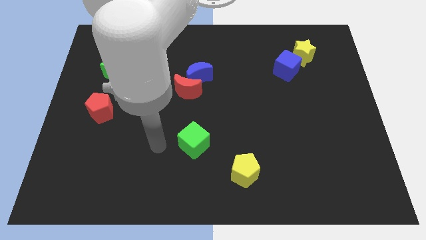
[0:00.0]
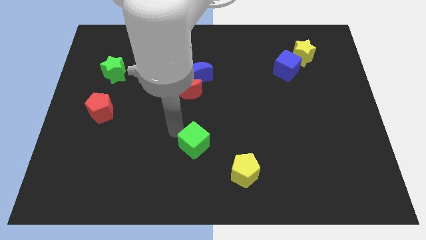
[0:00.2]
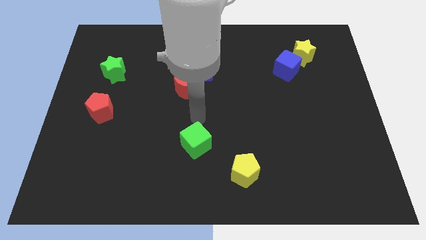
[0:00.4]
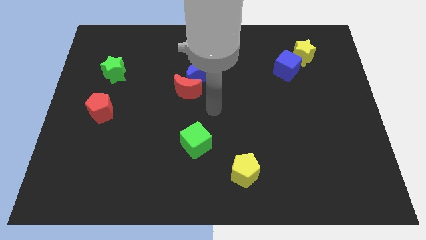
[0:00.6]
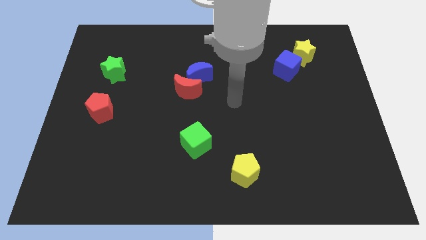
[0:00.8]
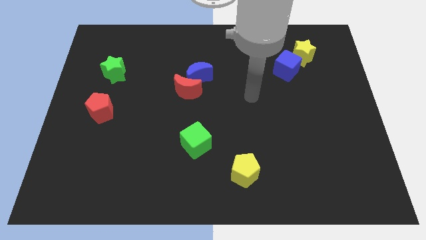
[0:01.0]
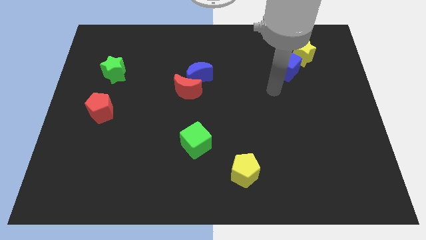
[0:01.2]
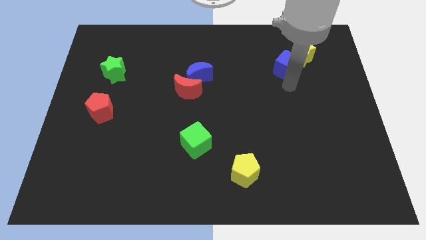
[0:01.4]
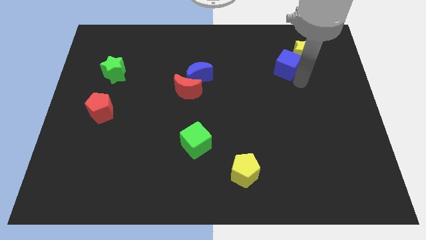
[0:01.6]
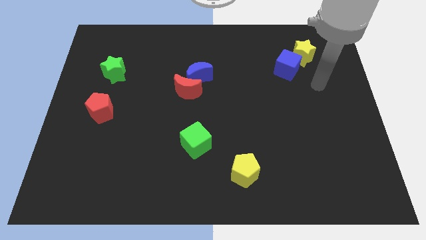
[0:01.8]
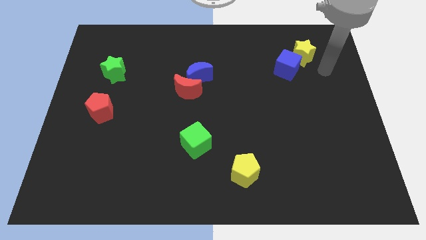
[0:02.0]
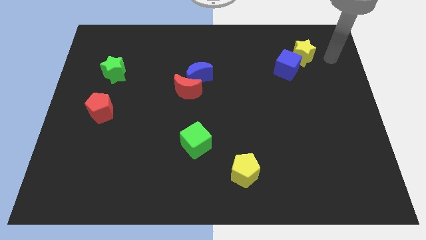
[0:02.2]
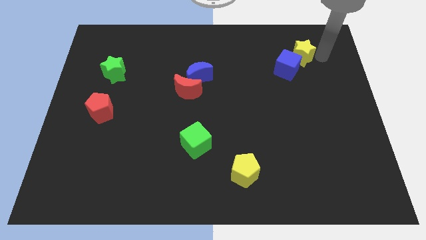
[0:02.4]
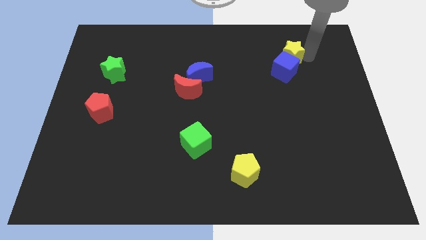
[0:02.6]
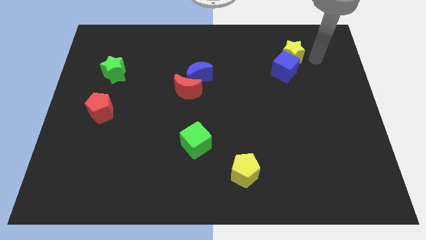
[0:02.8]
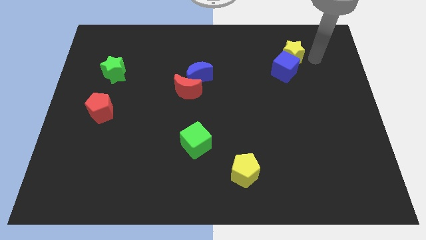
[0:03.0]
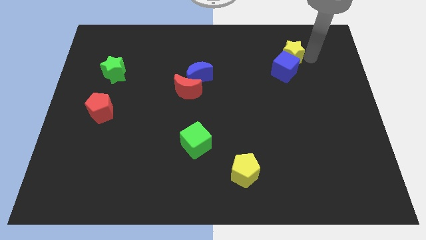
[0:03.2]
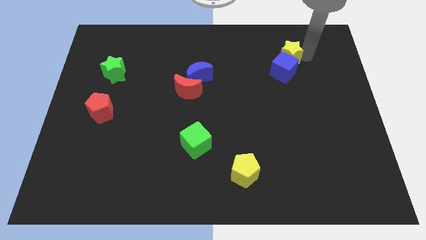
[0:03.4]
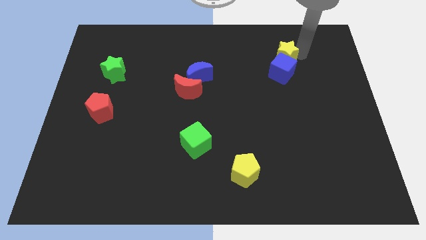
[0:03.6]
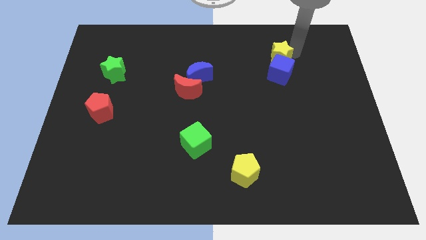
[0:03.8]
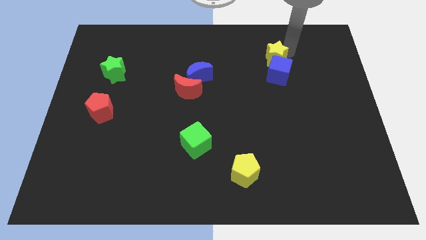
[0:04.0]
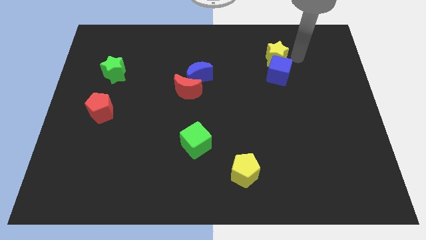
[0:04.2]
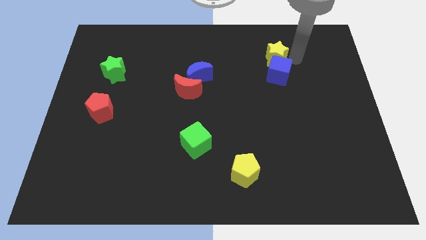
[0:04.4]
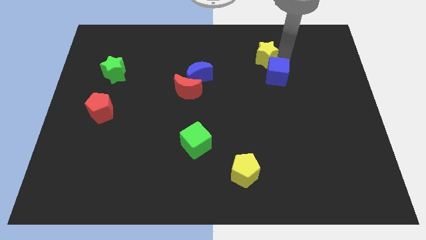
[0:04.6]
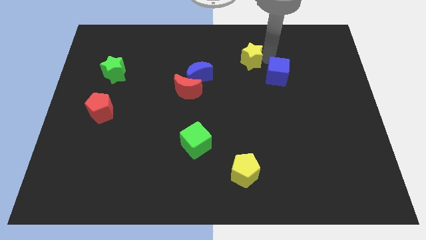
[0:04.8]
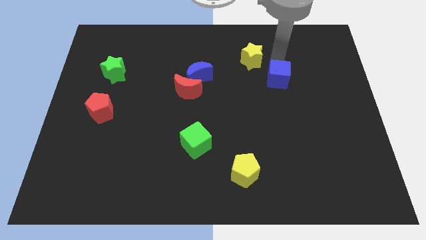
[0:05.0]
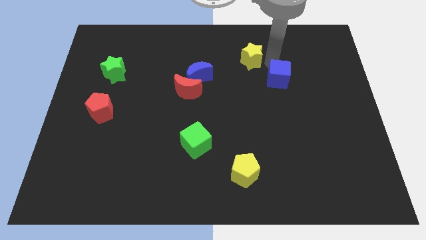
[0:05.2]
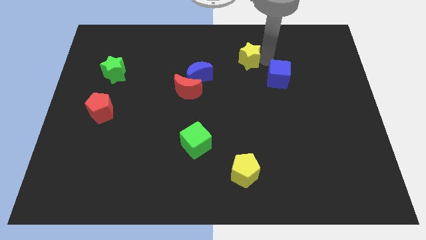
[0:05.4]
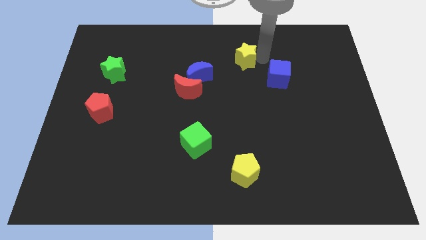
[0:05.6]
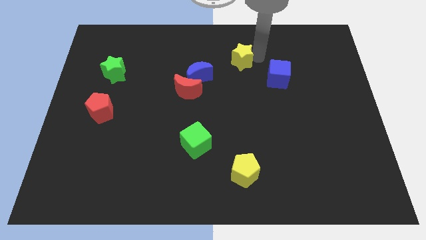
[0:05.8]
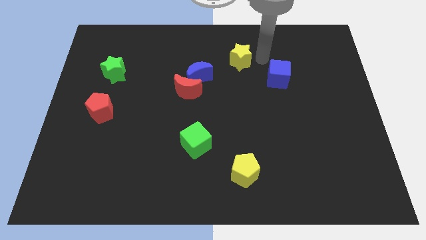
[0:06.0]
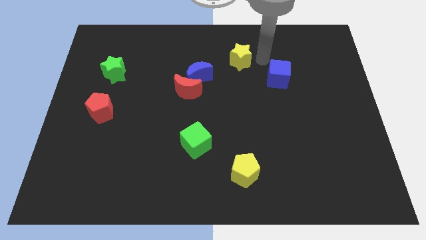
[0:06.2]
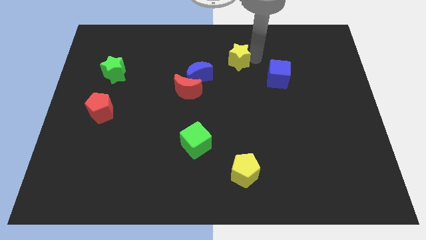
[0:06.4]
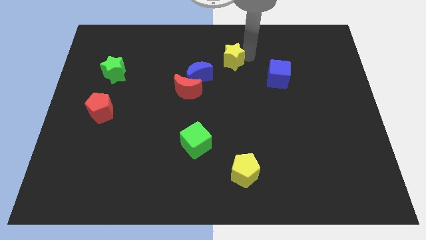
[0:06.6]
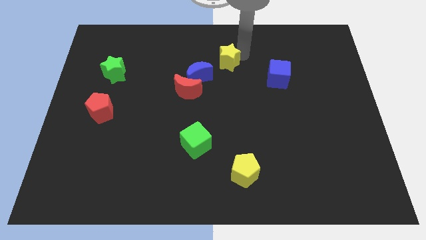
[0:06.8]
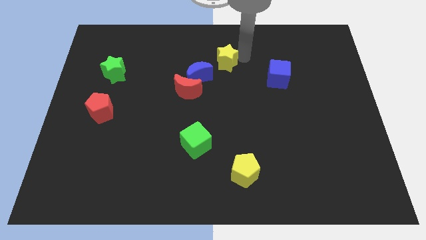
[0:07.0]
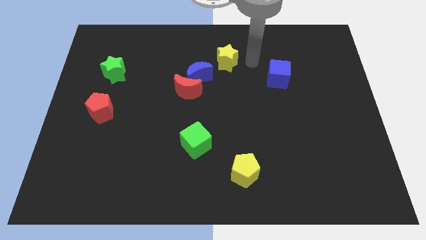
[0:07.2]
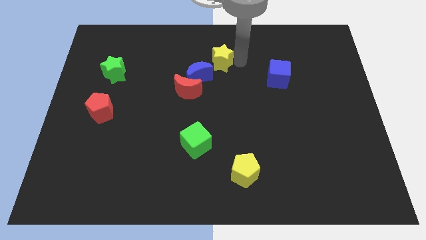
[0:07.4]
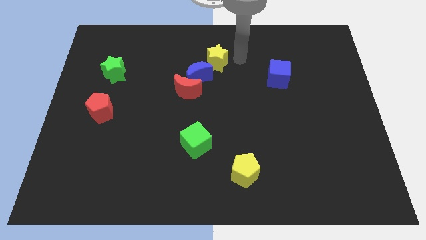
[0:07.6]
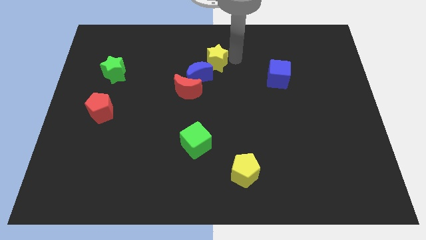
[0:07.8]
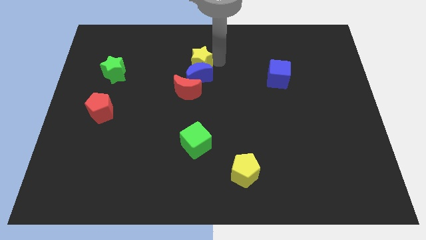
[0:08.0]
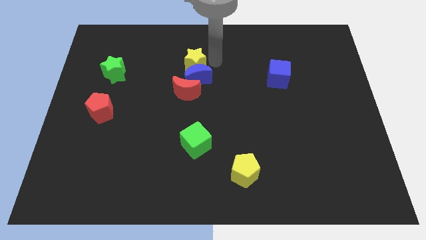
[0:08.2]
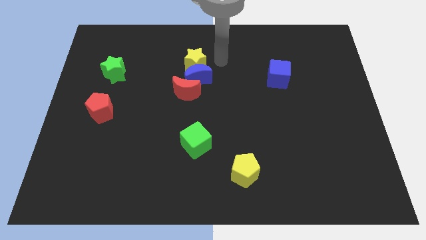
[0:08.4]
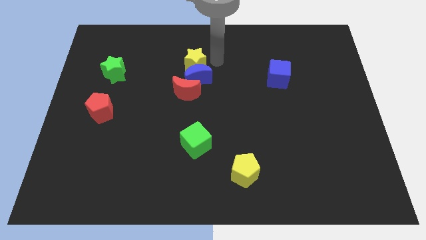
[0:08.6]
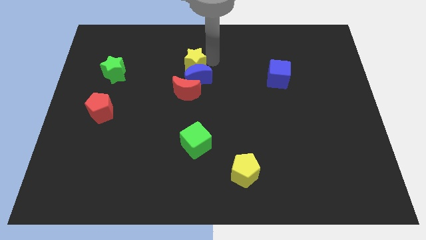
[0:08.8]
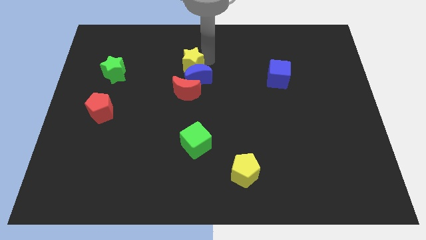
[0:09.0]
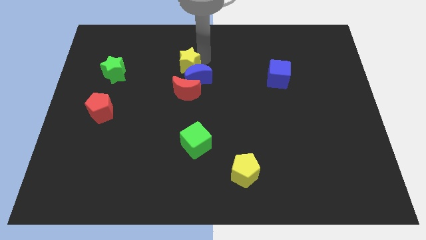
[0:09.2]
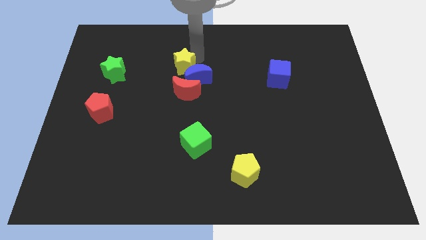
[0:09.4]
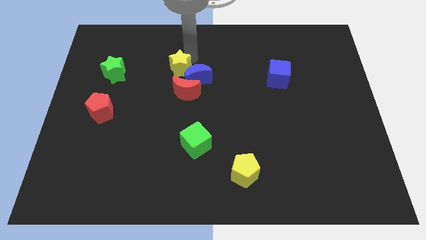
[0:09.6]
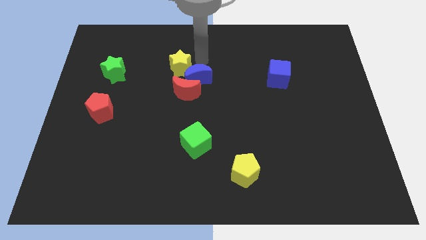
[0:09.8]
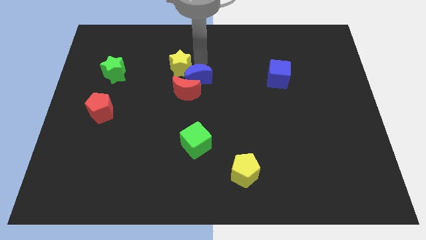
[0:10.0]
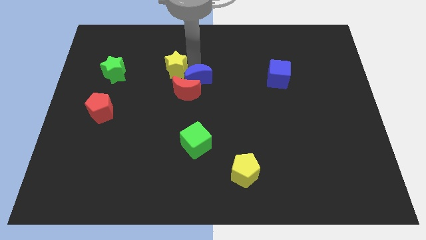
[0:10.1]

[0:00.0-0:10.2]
push the yellow star right of the green star
